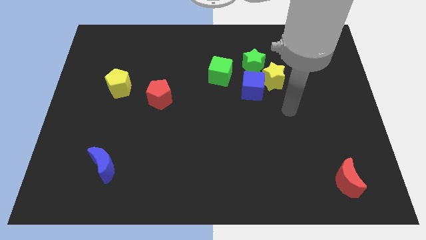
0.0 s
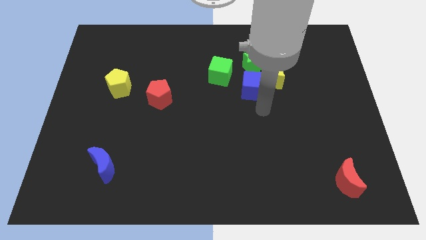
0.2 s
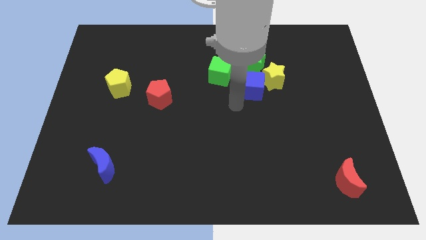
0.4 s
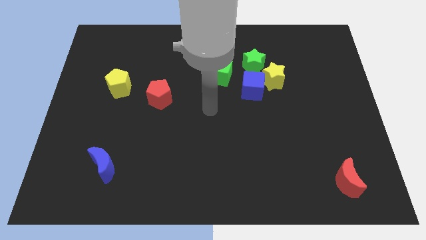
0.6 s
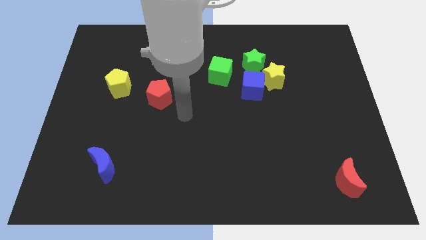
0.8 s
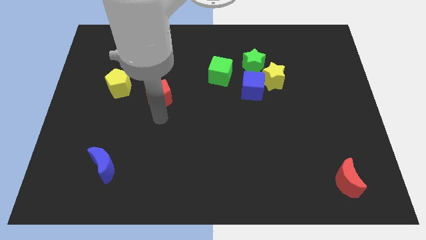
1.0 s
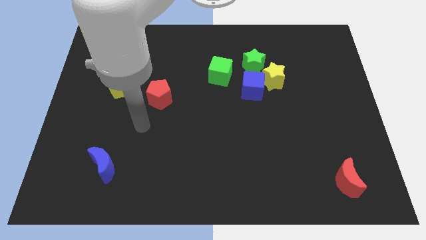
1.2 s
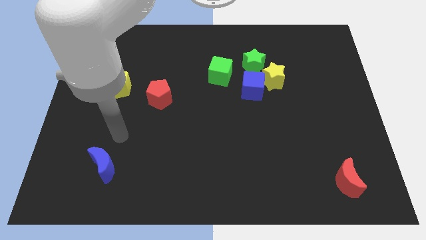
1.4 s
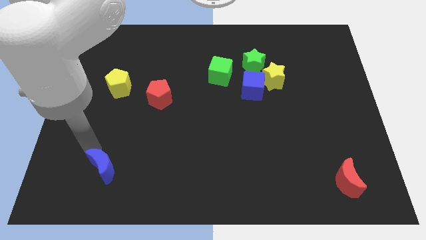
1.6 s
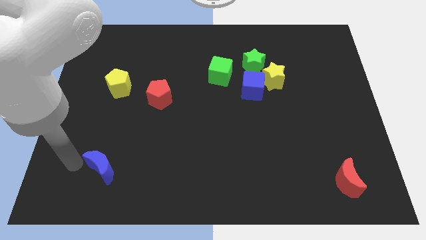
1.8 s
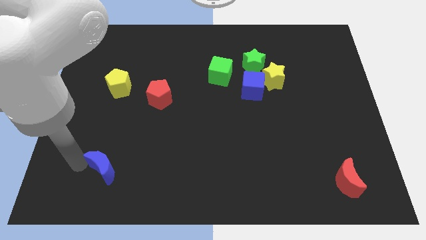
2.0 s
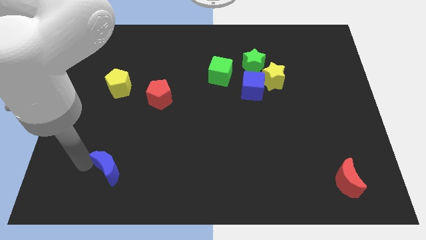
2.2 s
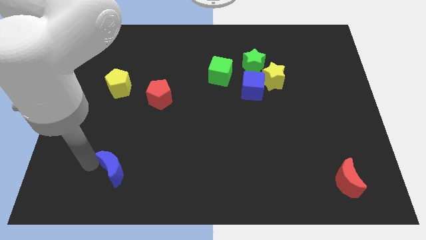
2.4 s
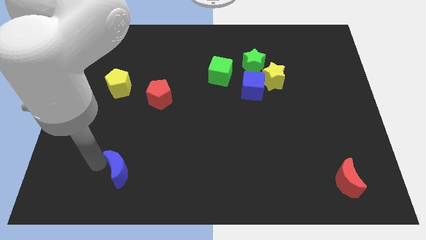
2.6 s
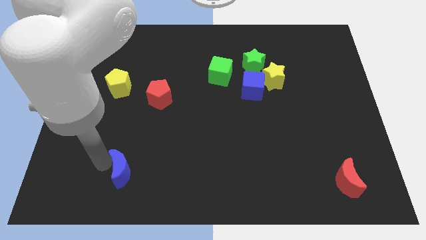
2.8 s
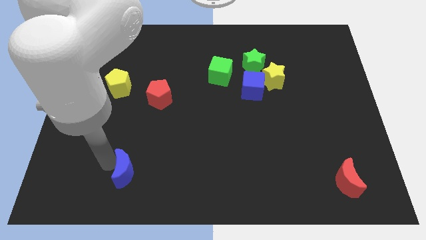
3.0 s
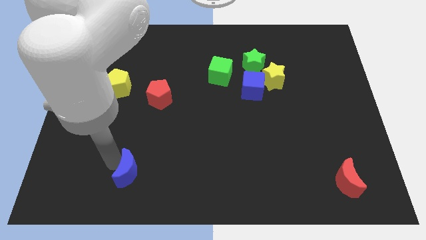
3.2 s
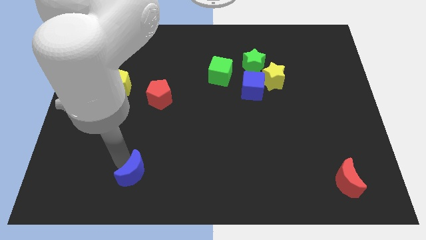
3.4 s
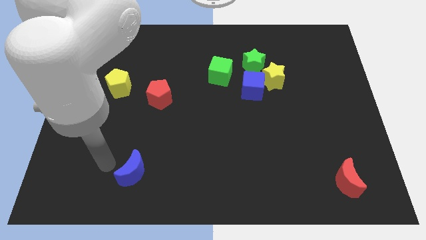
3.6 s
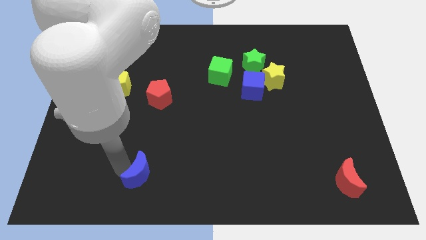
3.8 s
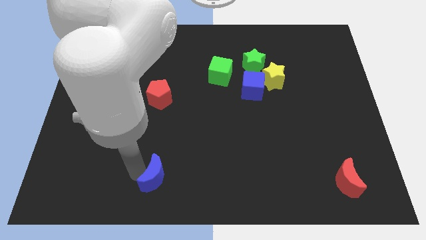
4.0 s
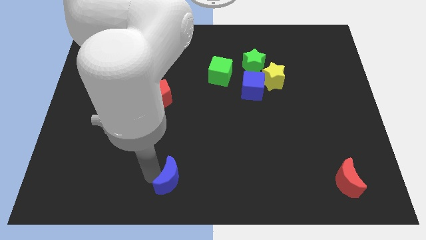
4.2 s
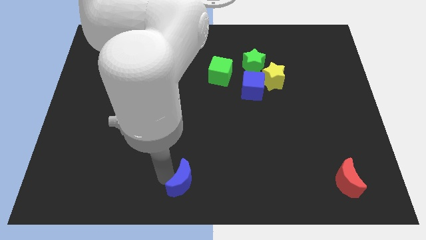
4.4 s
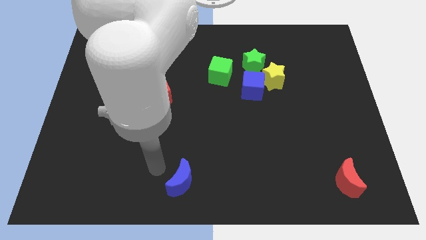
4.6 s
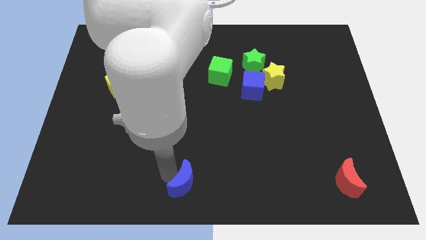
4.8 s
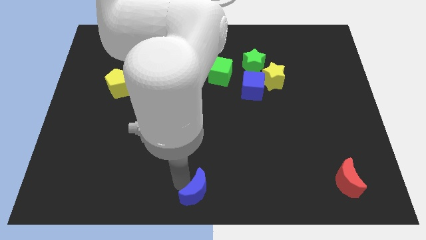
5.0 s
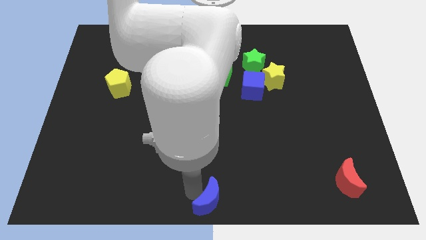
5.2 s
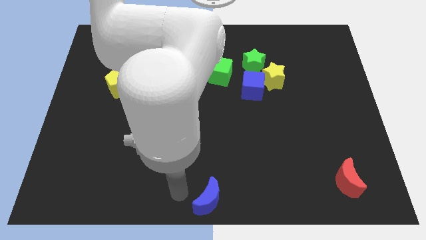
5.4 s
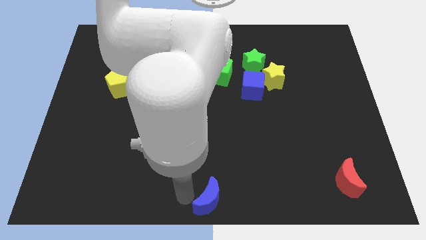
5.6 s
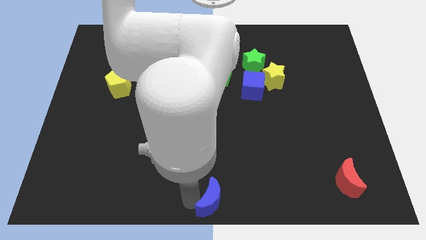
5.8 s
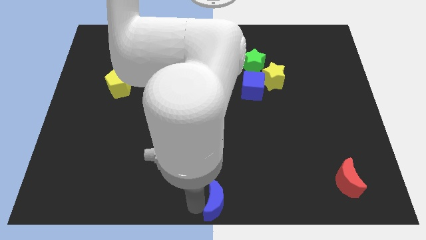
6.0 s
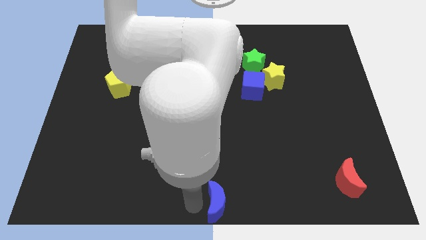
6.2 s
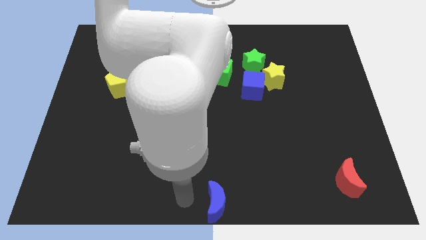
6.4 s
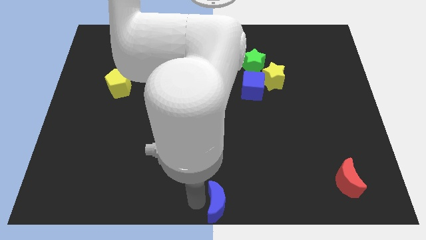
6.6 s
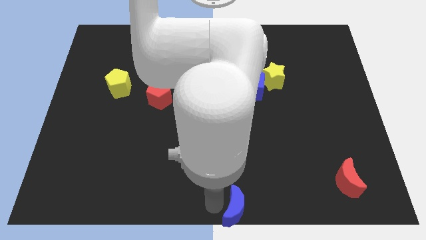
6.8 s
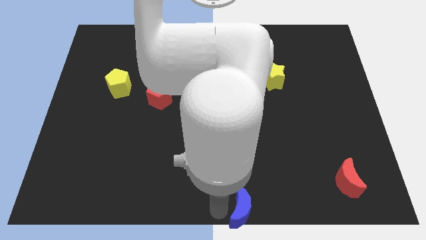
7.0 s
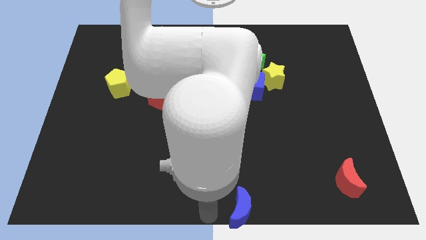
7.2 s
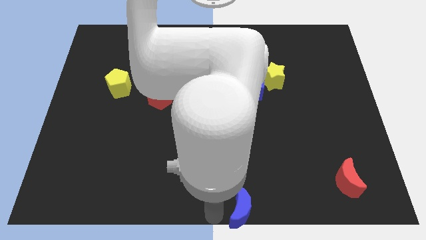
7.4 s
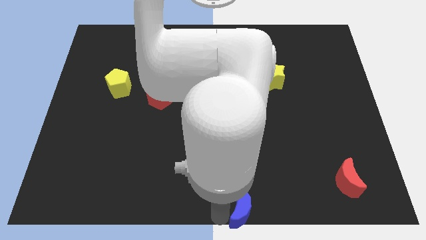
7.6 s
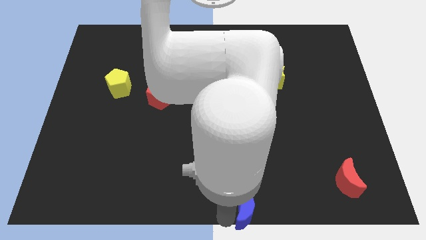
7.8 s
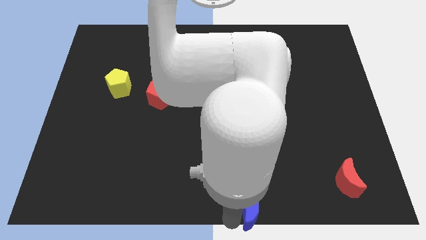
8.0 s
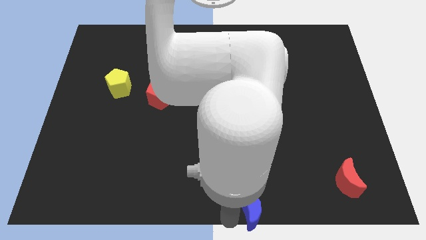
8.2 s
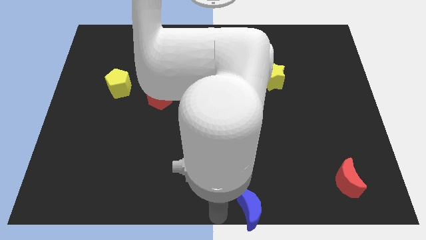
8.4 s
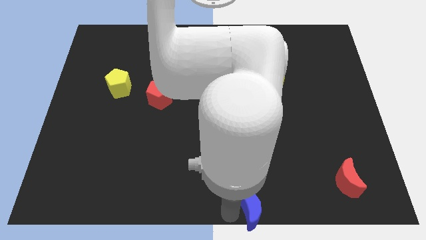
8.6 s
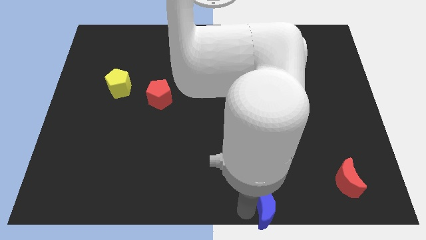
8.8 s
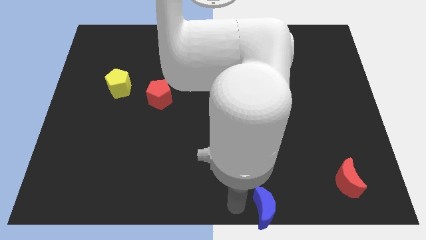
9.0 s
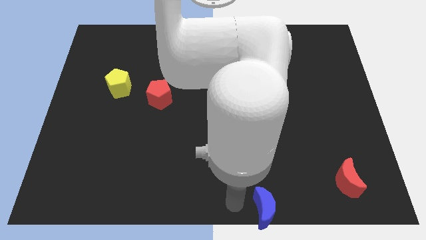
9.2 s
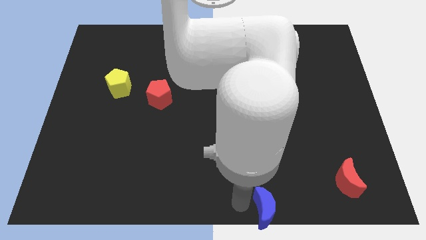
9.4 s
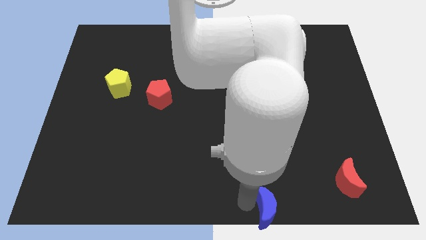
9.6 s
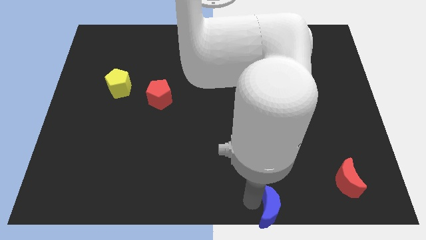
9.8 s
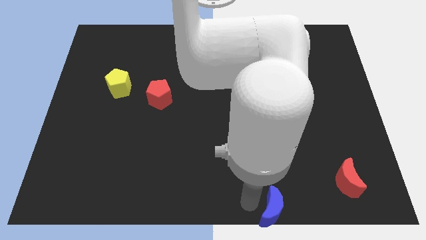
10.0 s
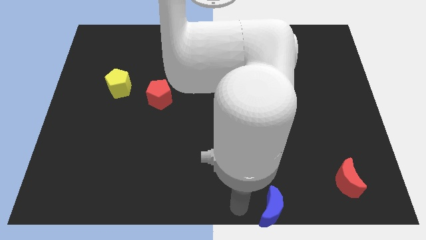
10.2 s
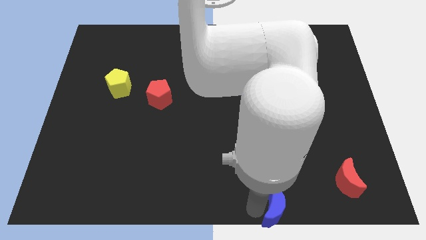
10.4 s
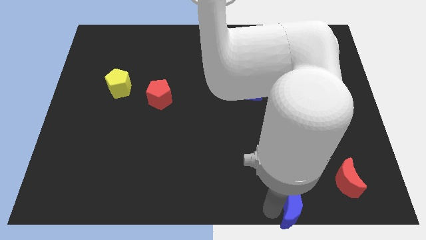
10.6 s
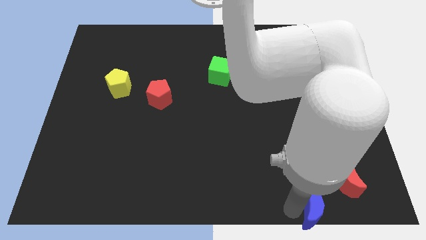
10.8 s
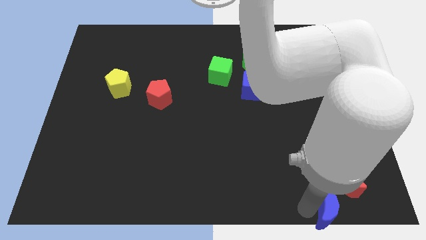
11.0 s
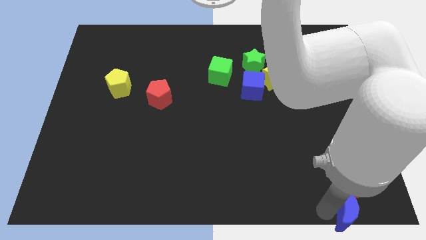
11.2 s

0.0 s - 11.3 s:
put the blue moon to the lower right corner

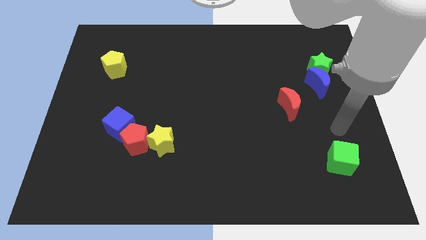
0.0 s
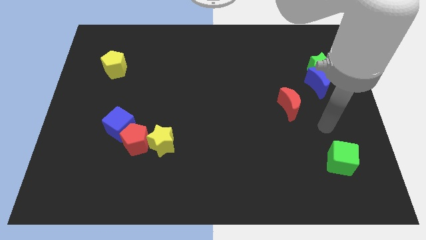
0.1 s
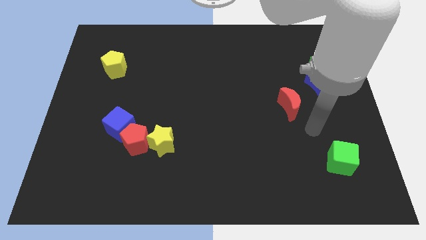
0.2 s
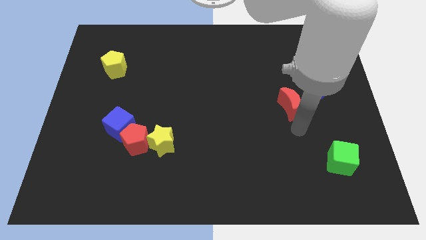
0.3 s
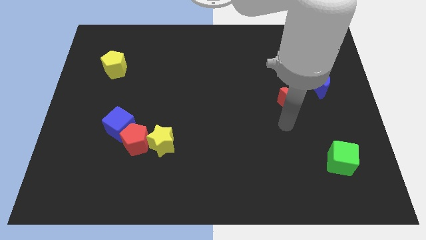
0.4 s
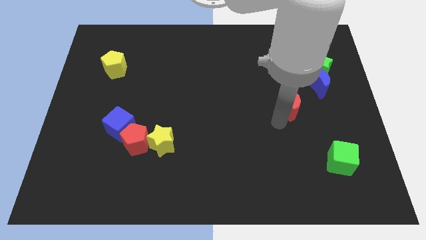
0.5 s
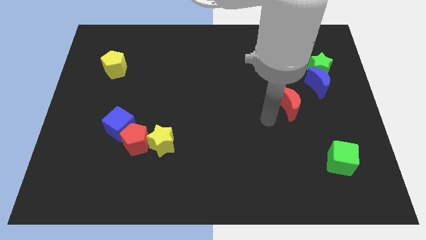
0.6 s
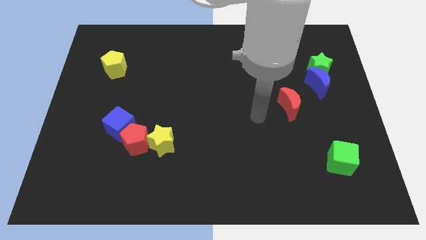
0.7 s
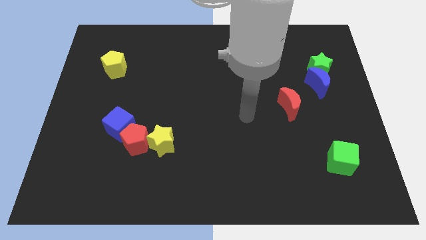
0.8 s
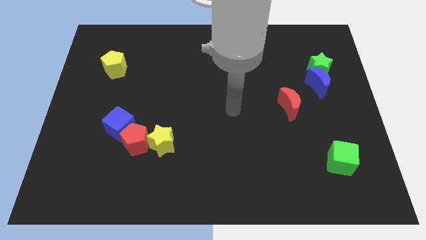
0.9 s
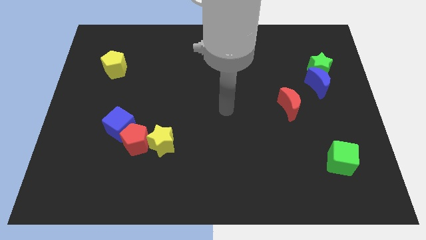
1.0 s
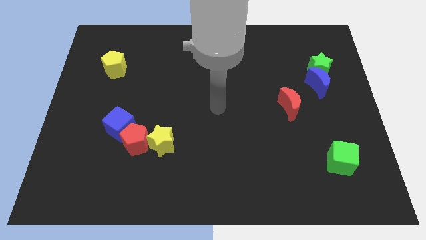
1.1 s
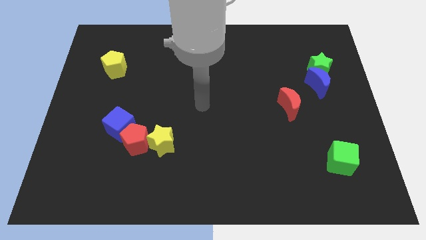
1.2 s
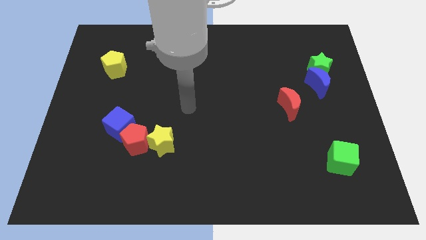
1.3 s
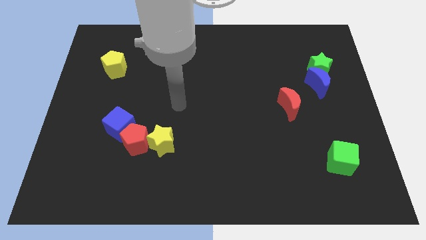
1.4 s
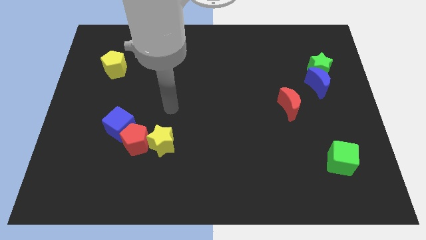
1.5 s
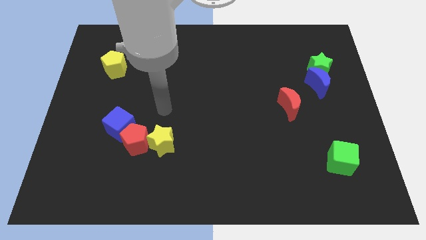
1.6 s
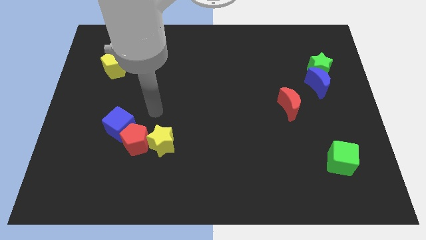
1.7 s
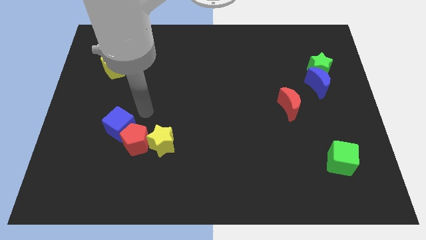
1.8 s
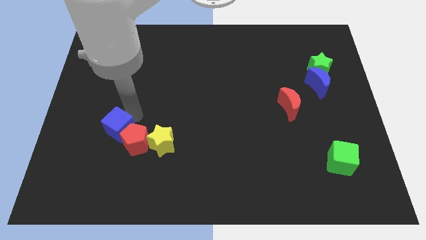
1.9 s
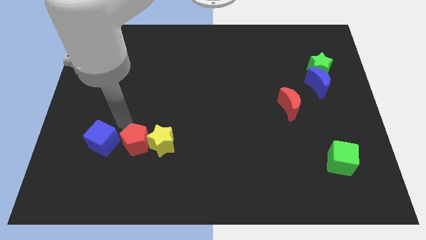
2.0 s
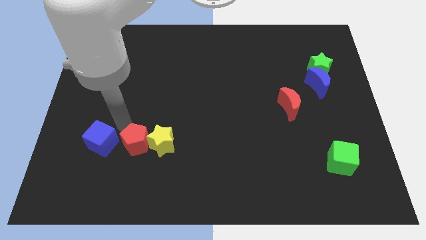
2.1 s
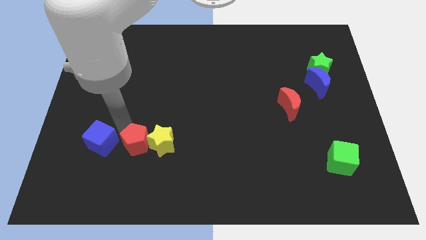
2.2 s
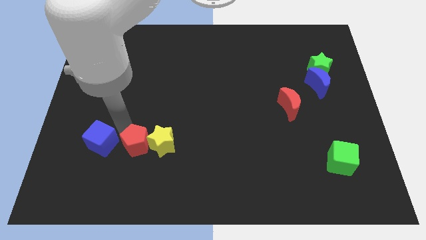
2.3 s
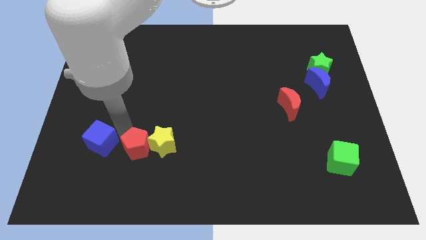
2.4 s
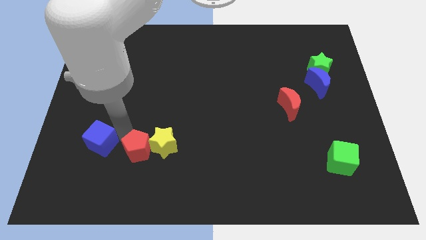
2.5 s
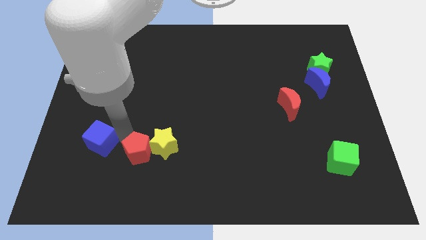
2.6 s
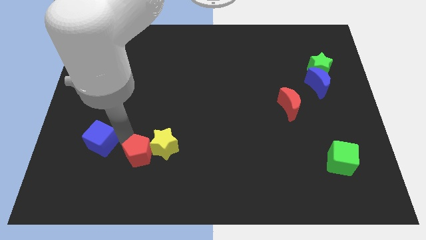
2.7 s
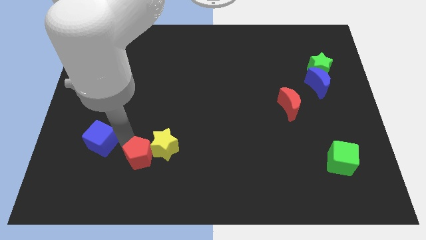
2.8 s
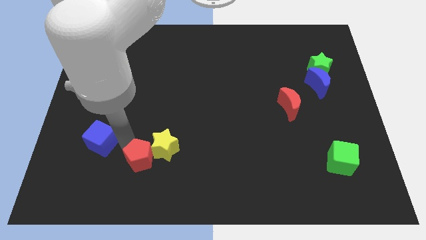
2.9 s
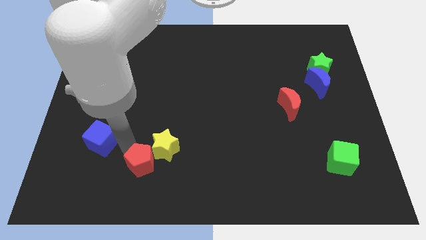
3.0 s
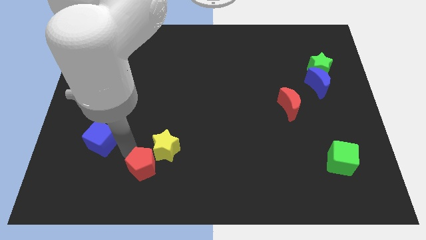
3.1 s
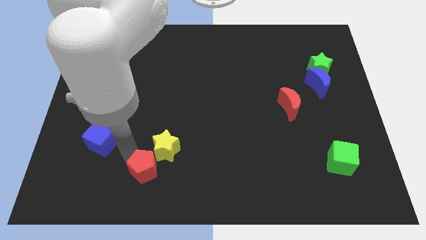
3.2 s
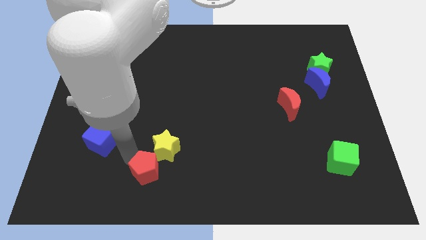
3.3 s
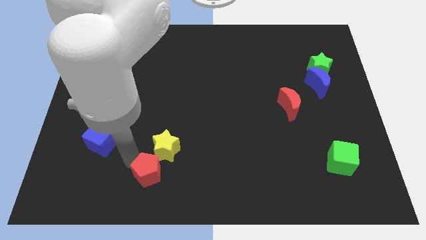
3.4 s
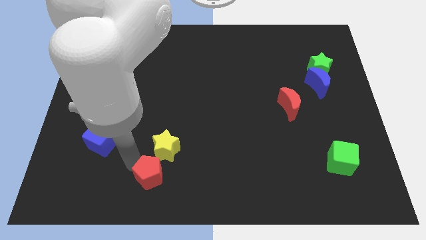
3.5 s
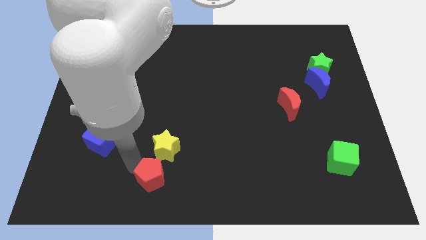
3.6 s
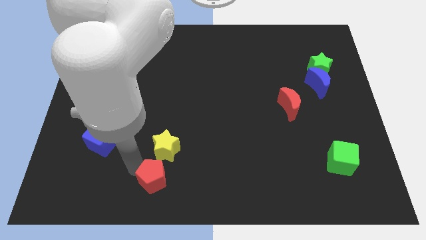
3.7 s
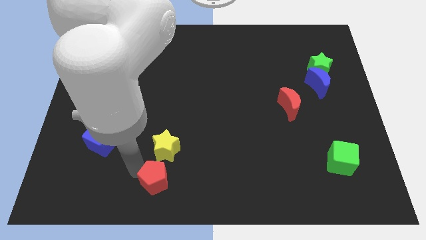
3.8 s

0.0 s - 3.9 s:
push the red pentagon to the bottom side
